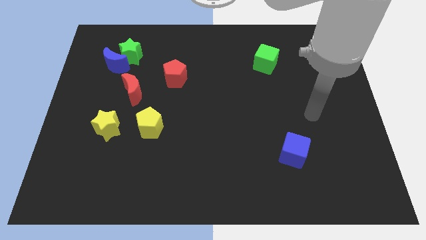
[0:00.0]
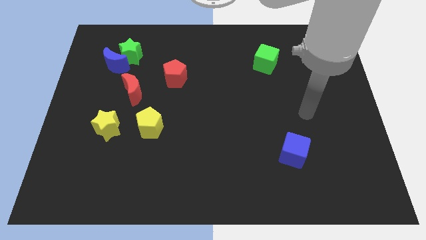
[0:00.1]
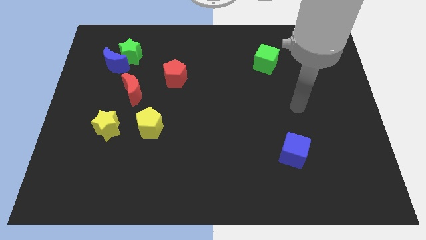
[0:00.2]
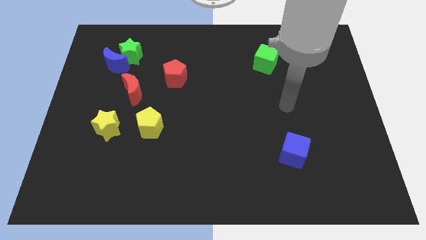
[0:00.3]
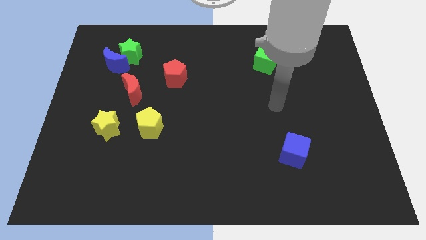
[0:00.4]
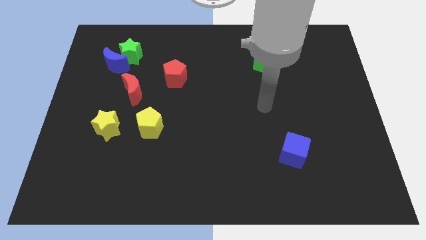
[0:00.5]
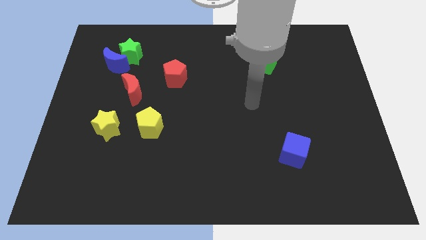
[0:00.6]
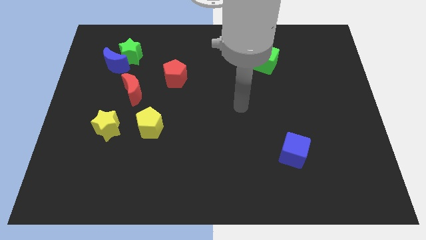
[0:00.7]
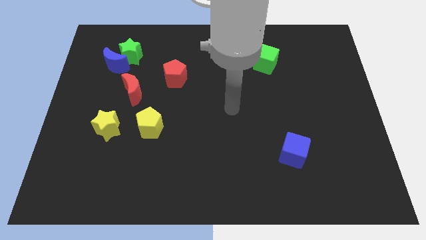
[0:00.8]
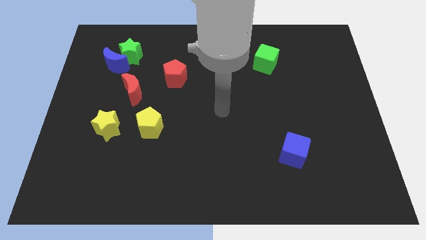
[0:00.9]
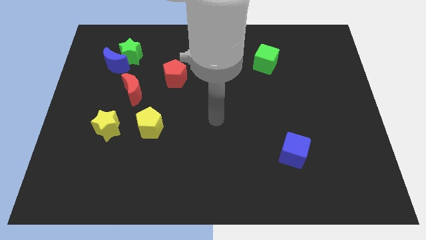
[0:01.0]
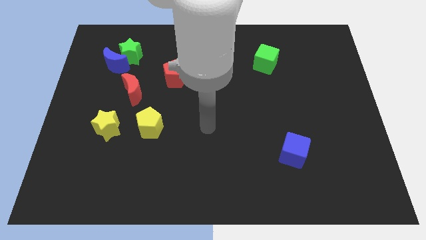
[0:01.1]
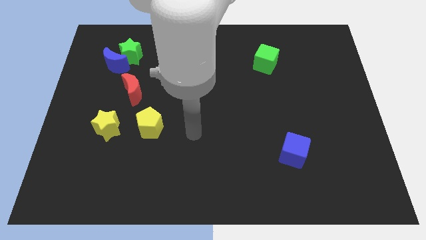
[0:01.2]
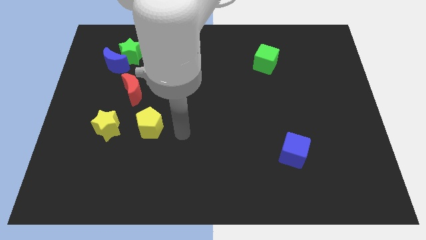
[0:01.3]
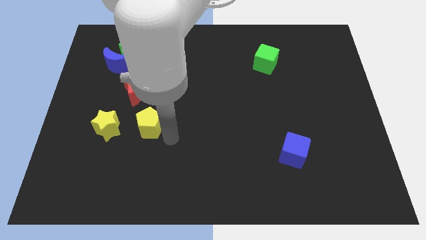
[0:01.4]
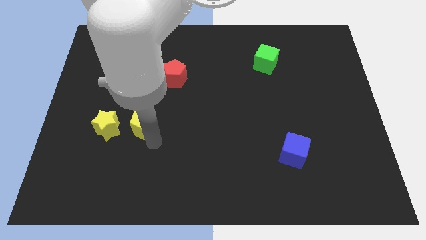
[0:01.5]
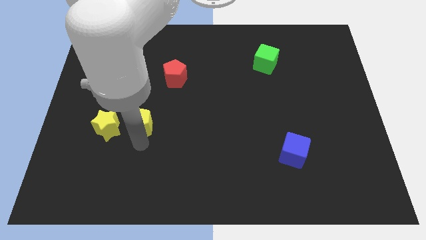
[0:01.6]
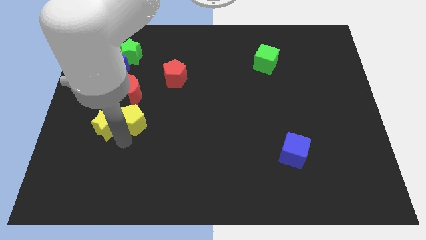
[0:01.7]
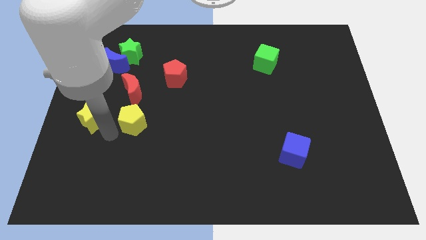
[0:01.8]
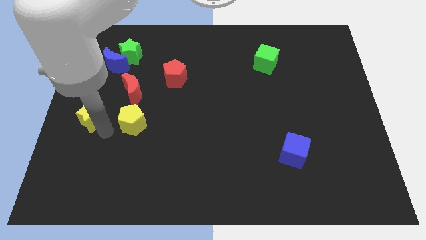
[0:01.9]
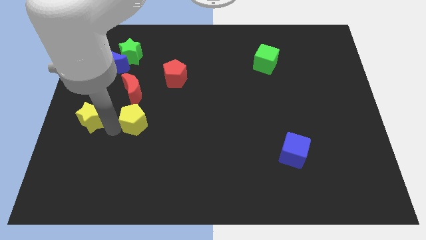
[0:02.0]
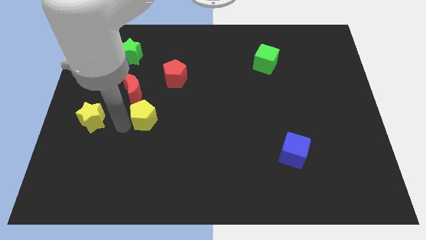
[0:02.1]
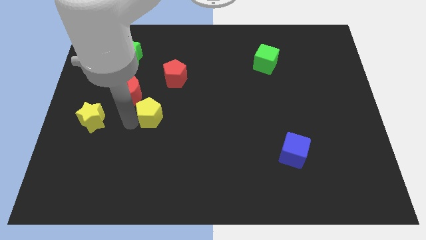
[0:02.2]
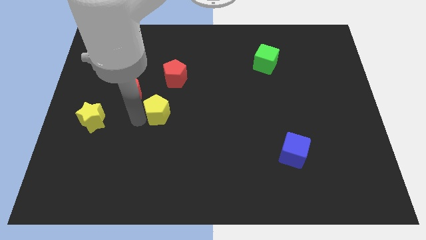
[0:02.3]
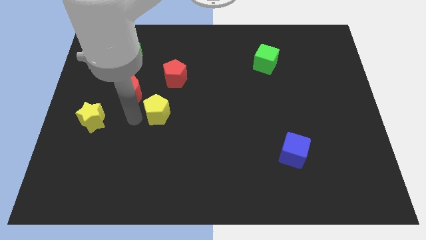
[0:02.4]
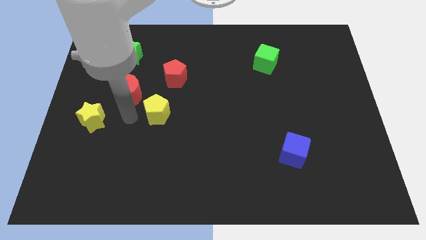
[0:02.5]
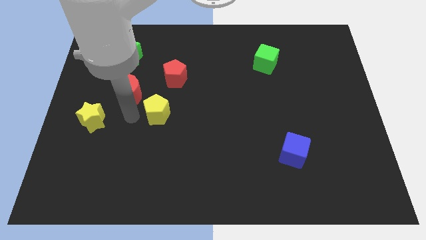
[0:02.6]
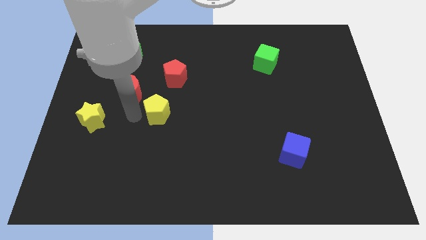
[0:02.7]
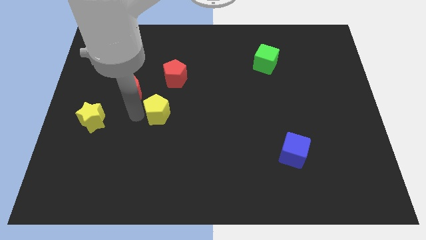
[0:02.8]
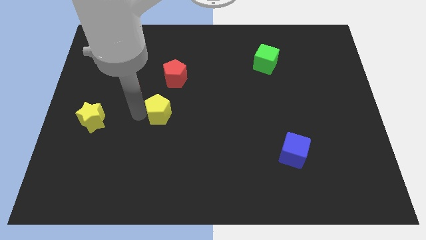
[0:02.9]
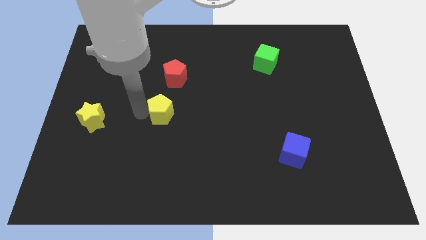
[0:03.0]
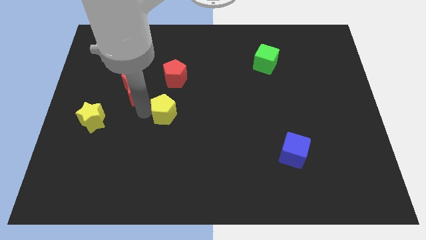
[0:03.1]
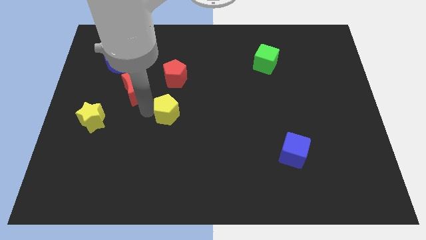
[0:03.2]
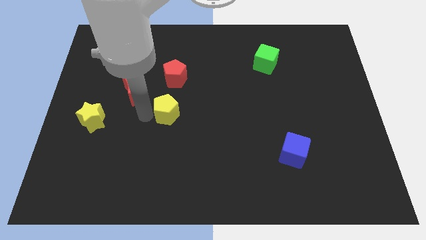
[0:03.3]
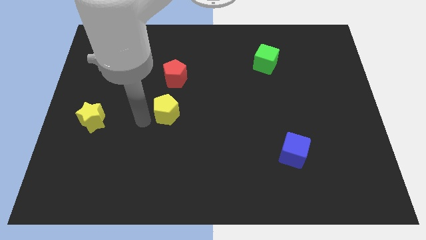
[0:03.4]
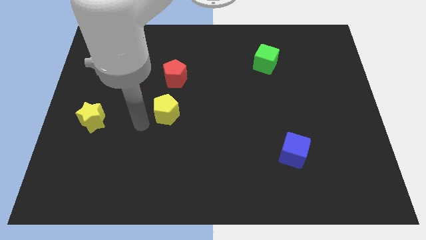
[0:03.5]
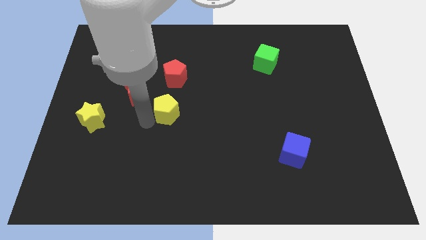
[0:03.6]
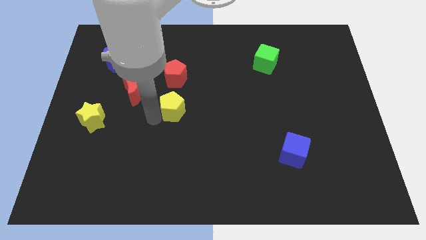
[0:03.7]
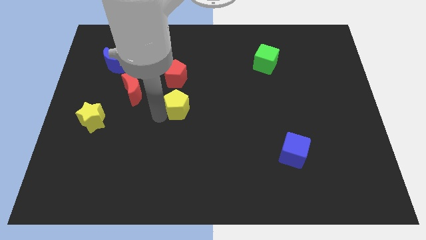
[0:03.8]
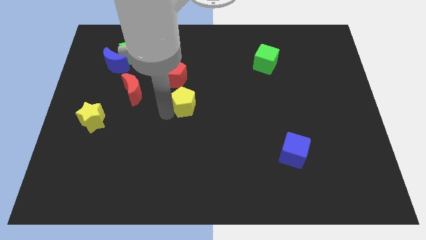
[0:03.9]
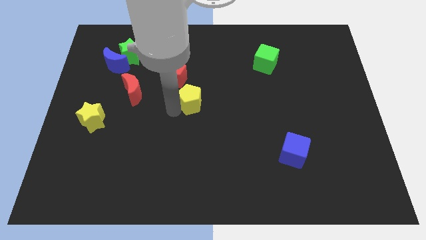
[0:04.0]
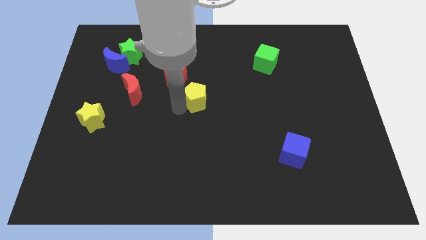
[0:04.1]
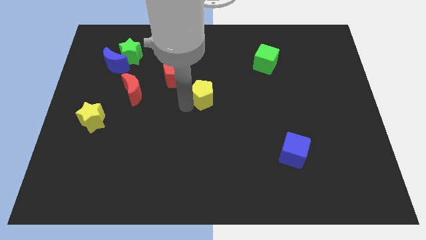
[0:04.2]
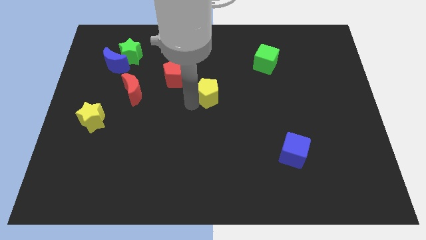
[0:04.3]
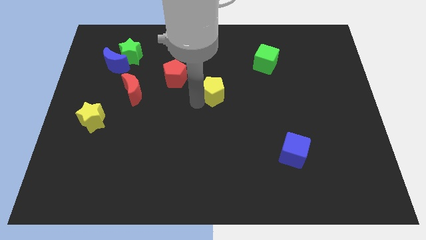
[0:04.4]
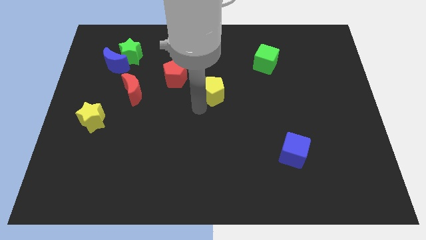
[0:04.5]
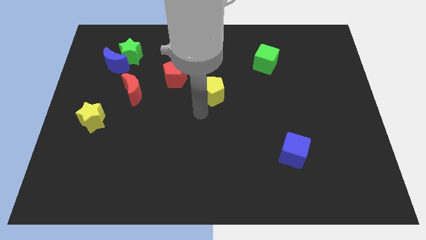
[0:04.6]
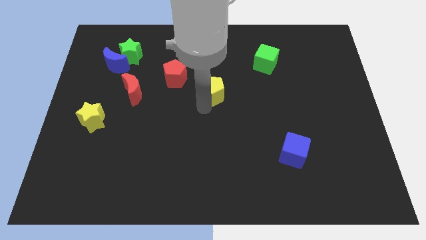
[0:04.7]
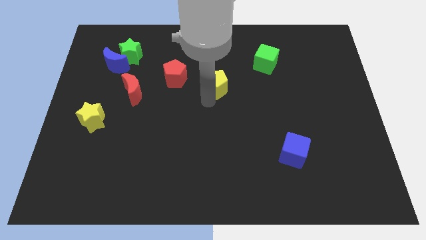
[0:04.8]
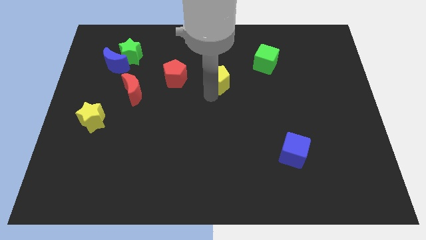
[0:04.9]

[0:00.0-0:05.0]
slide the yellow pentagon upwards and to the right

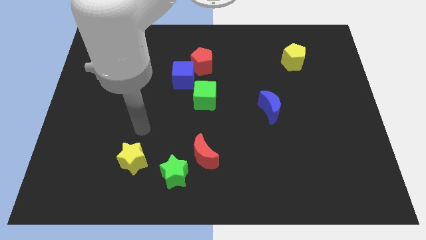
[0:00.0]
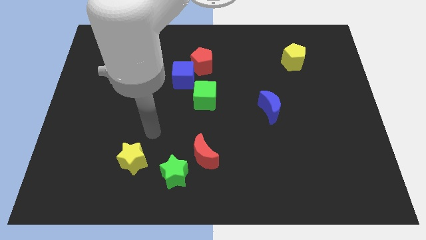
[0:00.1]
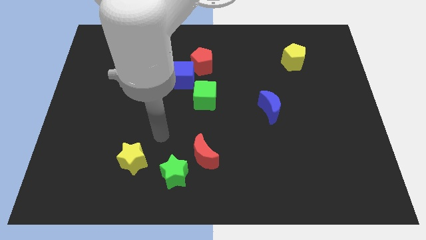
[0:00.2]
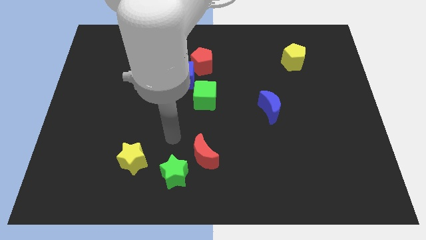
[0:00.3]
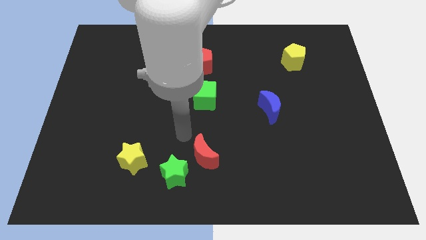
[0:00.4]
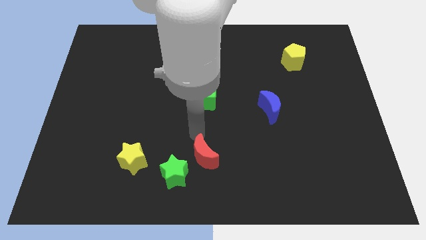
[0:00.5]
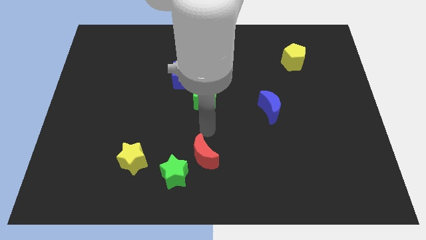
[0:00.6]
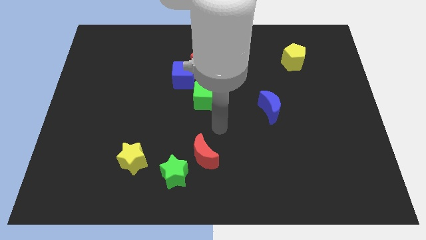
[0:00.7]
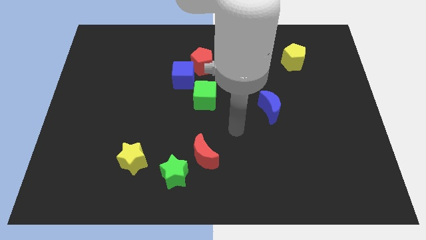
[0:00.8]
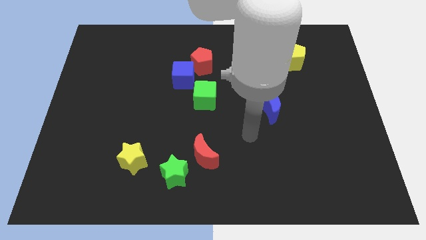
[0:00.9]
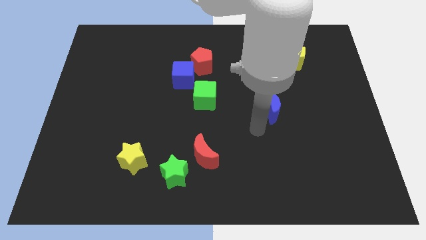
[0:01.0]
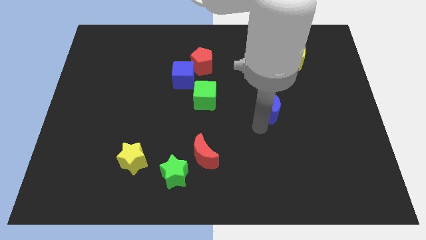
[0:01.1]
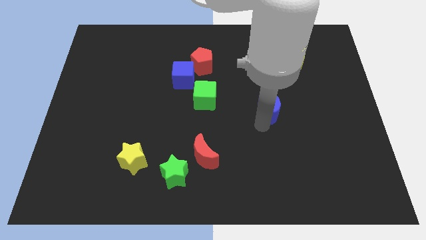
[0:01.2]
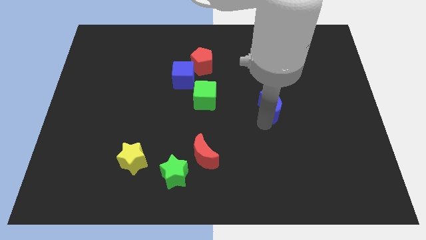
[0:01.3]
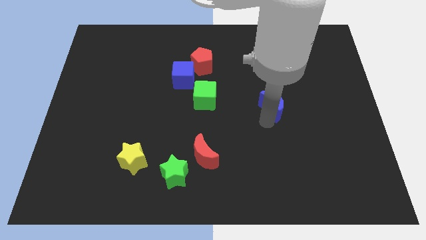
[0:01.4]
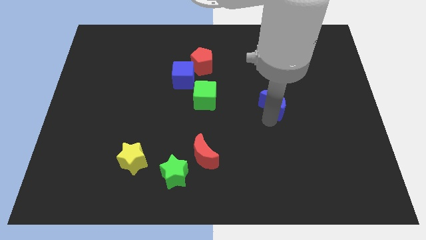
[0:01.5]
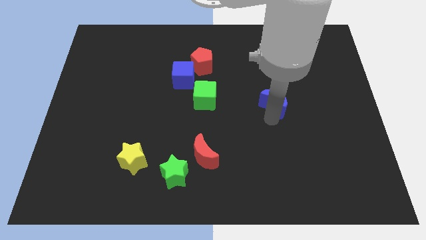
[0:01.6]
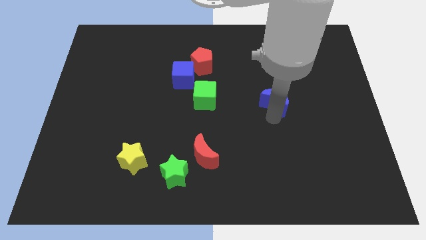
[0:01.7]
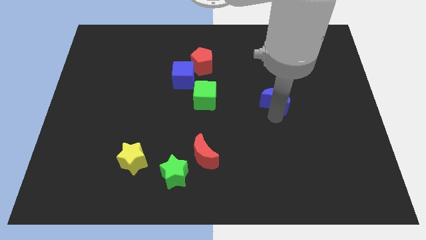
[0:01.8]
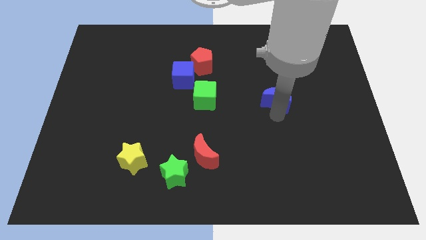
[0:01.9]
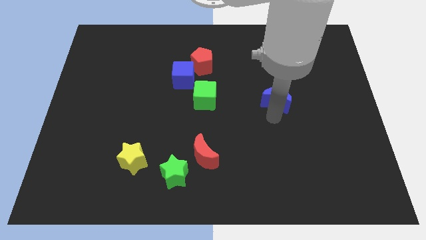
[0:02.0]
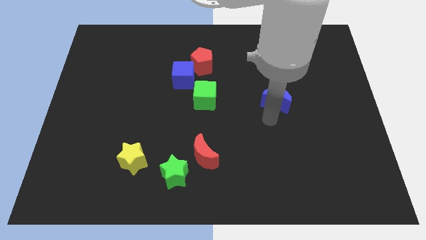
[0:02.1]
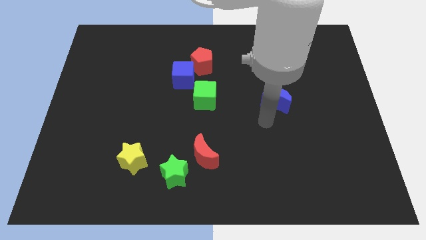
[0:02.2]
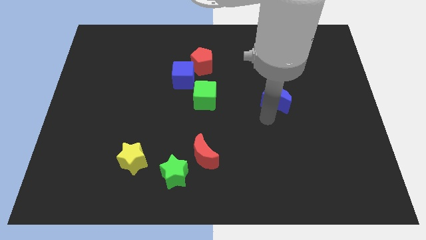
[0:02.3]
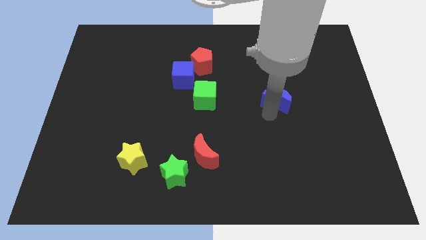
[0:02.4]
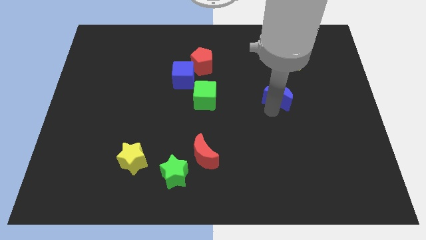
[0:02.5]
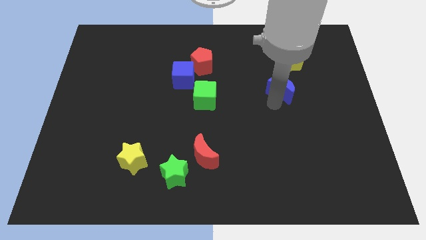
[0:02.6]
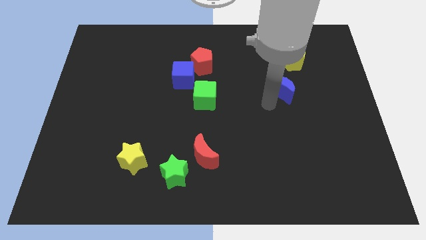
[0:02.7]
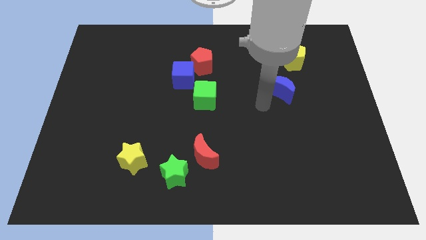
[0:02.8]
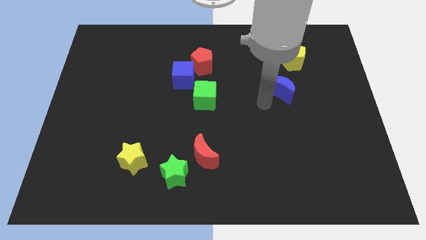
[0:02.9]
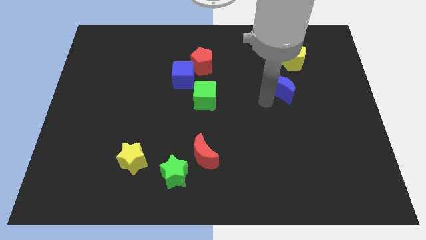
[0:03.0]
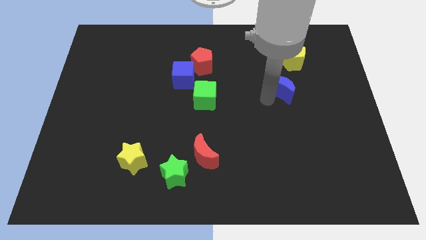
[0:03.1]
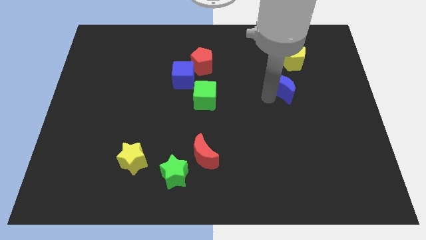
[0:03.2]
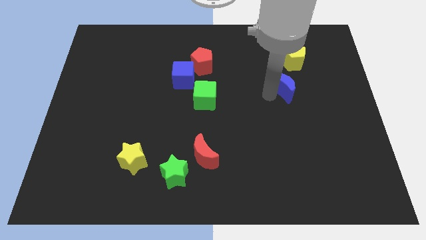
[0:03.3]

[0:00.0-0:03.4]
slide the blue moon a bit upwards and then to the right
